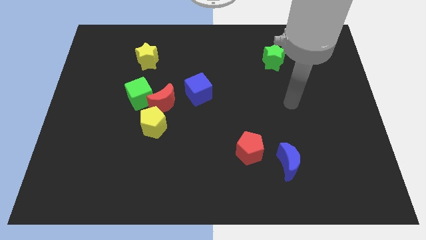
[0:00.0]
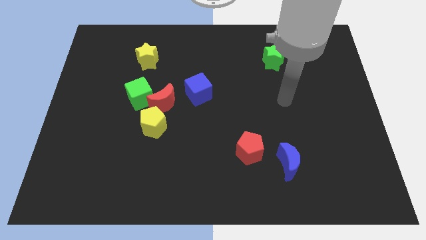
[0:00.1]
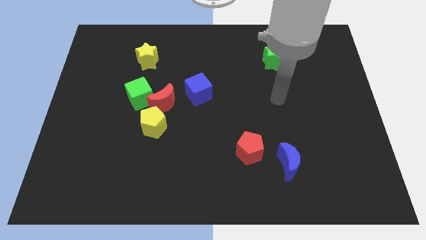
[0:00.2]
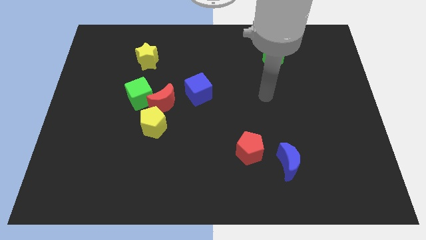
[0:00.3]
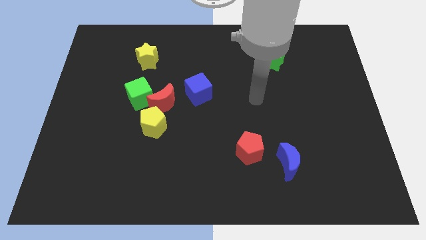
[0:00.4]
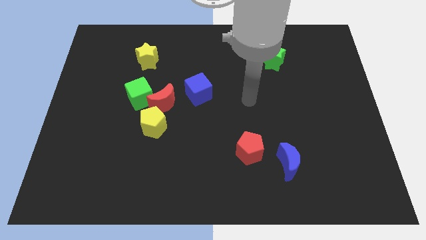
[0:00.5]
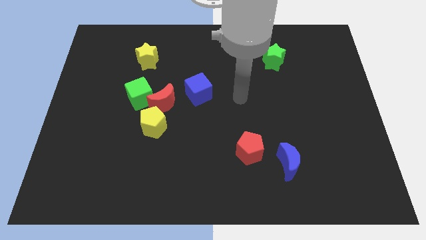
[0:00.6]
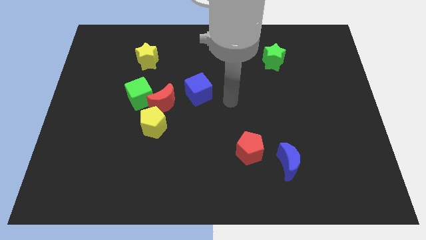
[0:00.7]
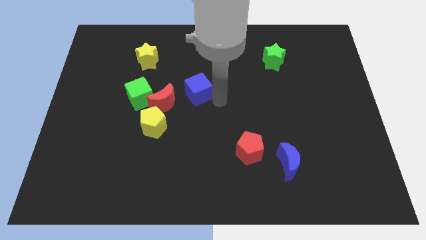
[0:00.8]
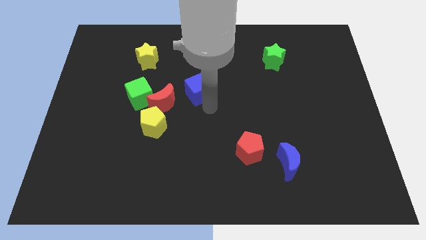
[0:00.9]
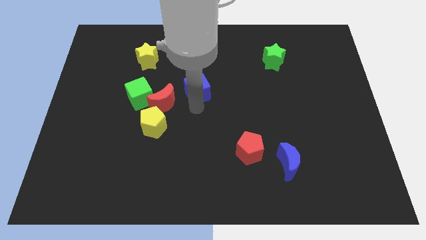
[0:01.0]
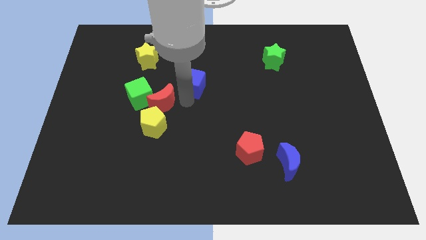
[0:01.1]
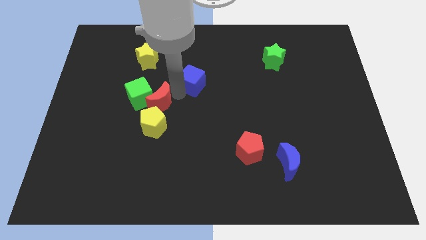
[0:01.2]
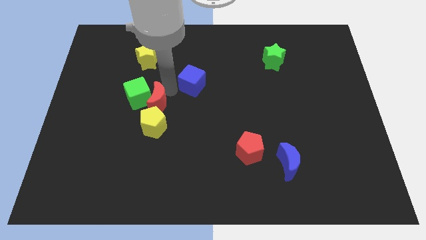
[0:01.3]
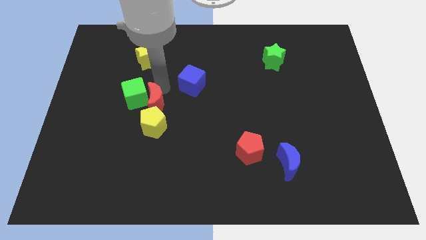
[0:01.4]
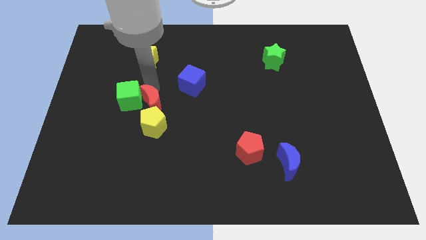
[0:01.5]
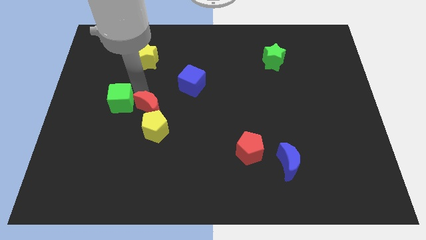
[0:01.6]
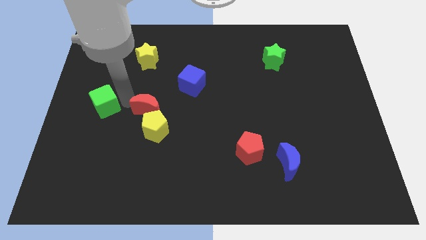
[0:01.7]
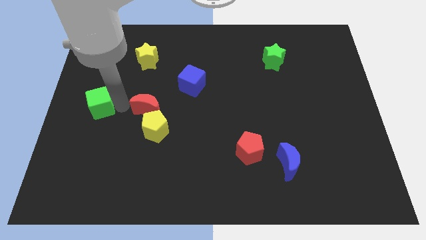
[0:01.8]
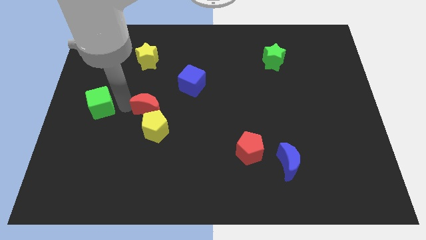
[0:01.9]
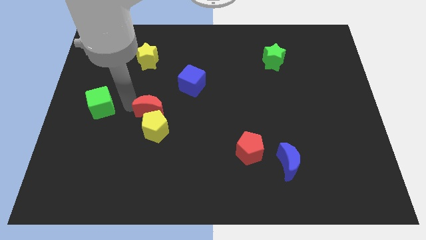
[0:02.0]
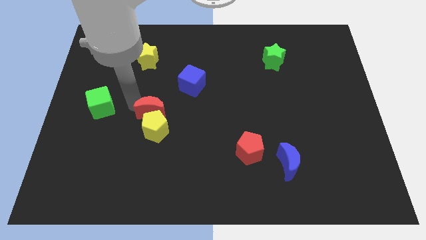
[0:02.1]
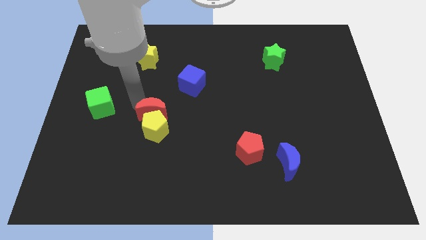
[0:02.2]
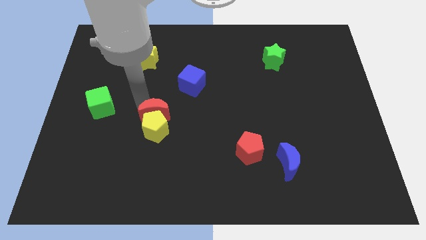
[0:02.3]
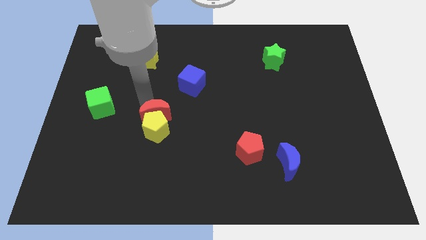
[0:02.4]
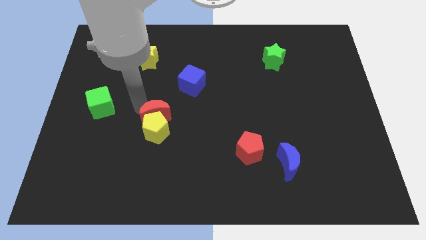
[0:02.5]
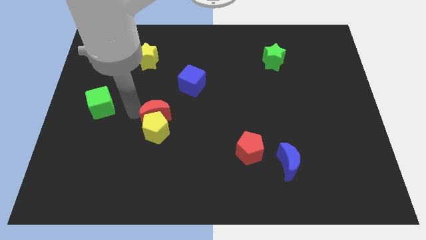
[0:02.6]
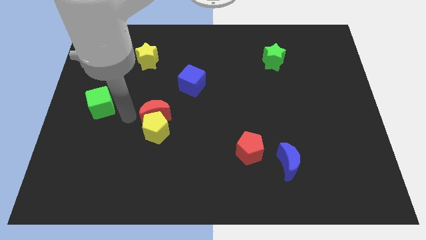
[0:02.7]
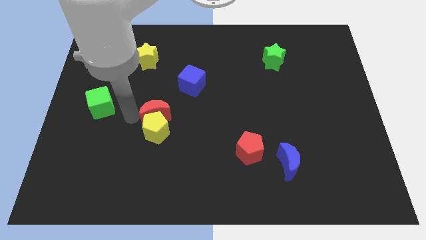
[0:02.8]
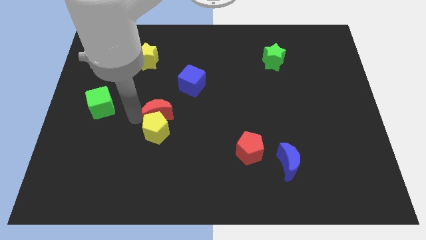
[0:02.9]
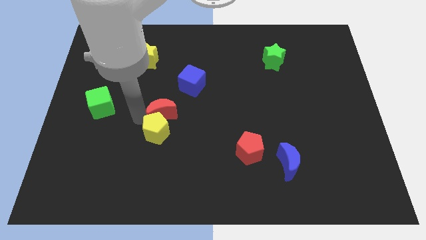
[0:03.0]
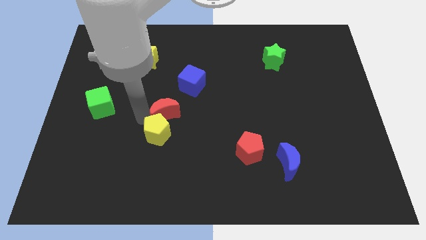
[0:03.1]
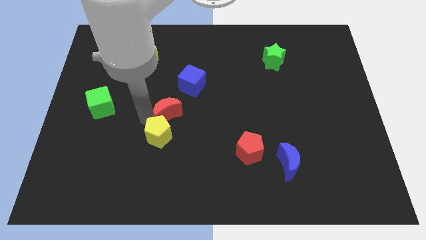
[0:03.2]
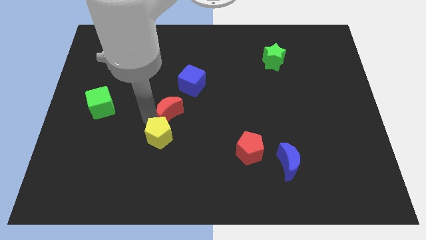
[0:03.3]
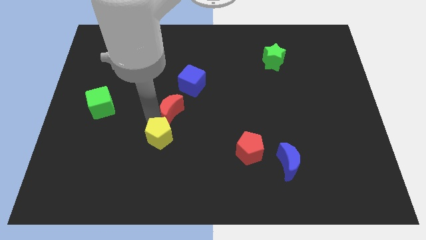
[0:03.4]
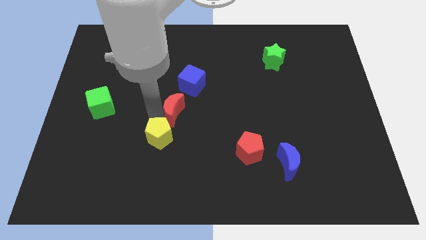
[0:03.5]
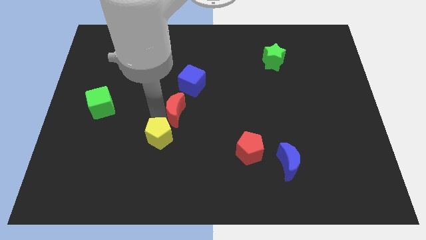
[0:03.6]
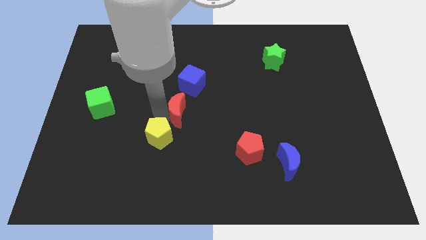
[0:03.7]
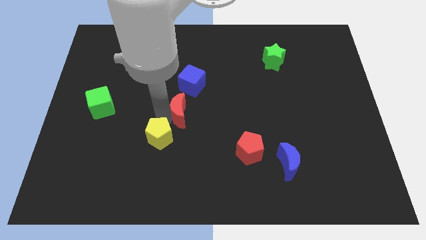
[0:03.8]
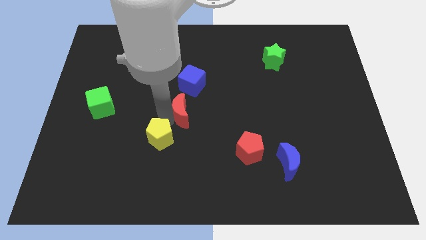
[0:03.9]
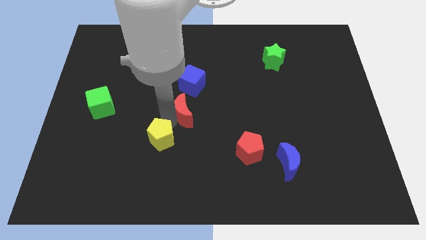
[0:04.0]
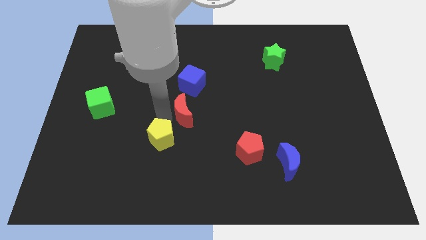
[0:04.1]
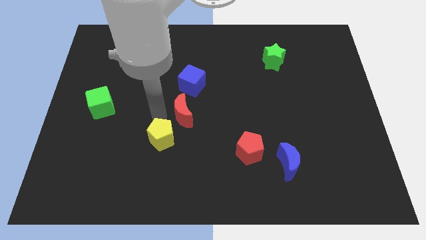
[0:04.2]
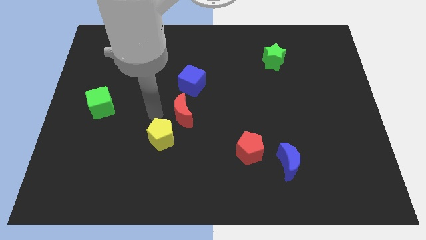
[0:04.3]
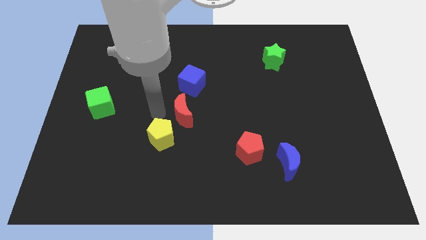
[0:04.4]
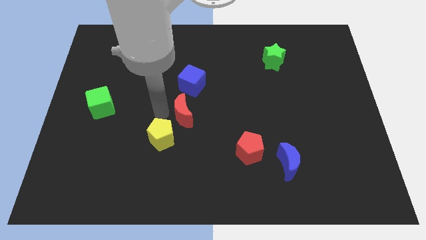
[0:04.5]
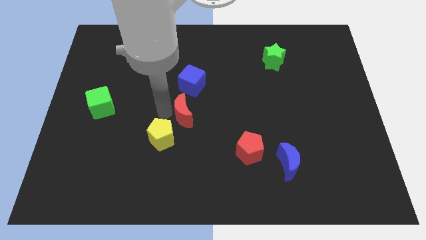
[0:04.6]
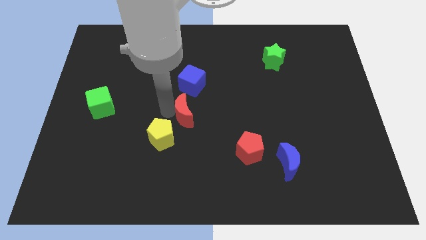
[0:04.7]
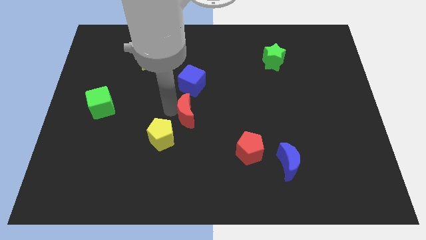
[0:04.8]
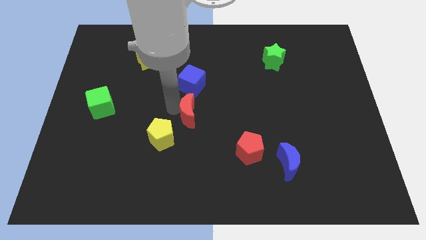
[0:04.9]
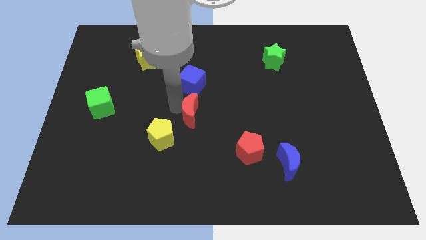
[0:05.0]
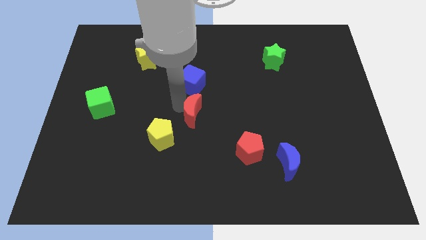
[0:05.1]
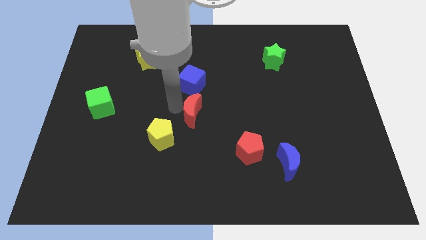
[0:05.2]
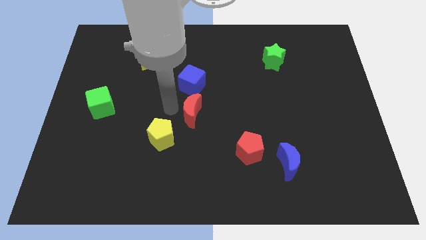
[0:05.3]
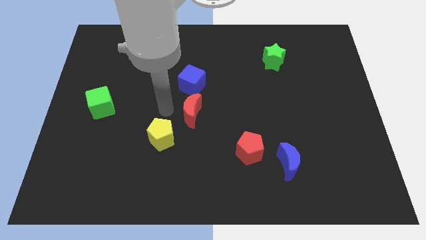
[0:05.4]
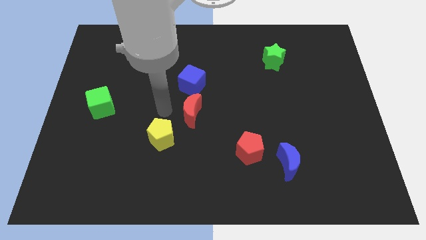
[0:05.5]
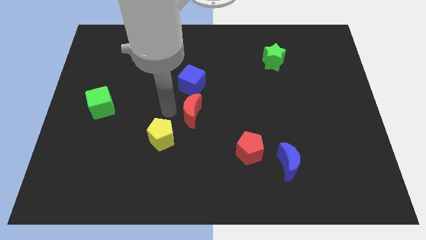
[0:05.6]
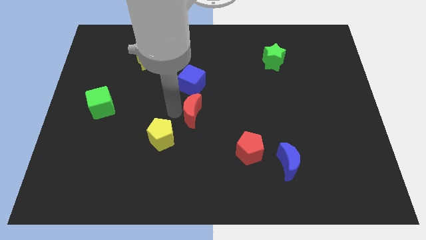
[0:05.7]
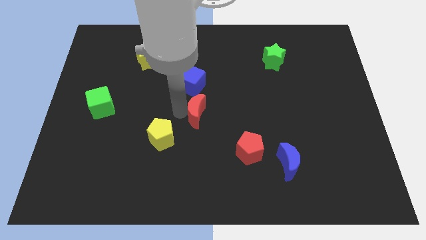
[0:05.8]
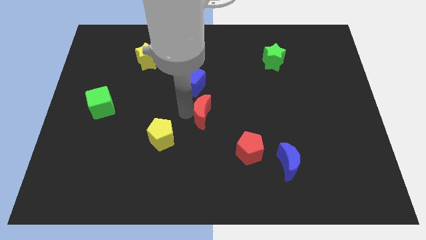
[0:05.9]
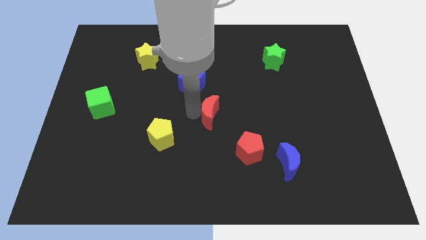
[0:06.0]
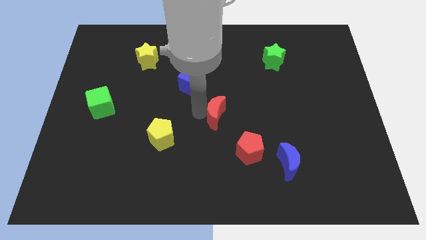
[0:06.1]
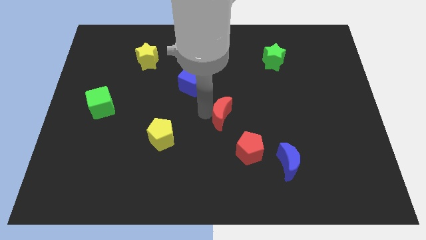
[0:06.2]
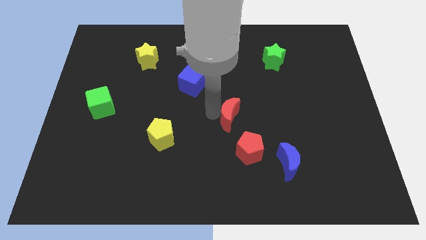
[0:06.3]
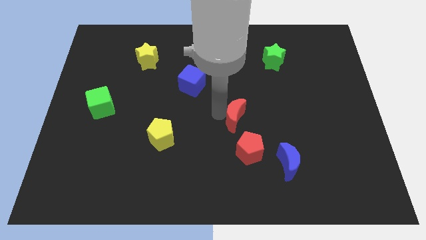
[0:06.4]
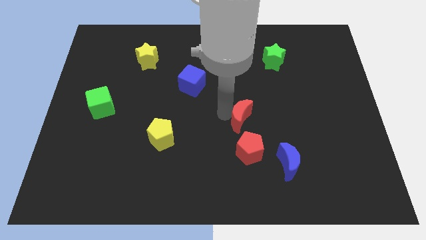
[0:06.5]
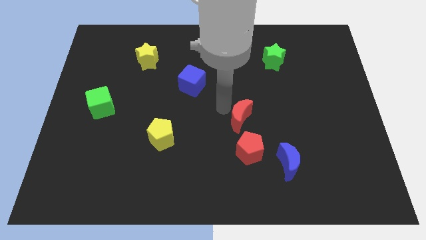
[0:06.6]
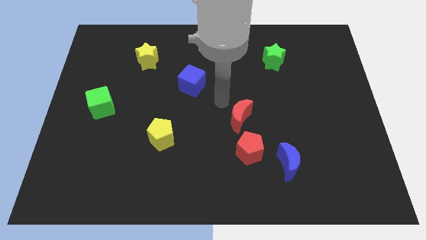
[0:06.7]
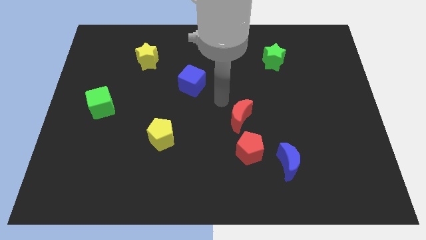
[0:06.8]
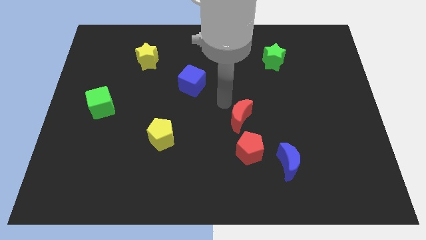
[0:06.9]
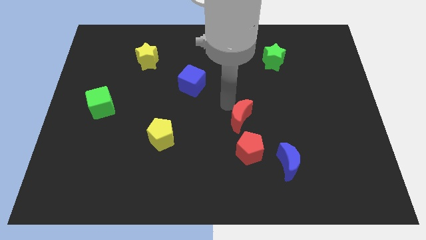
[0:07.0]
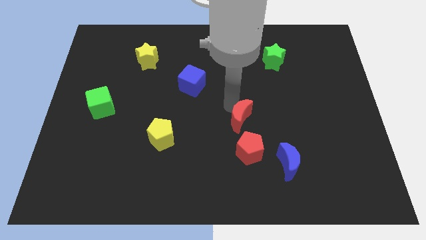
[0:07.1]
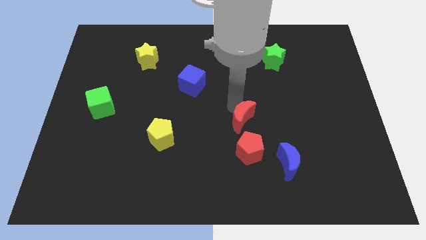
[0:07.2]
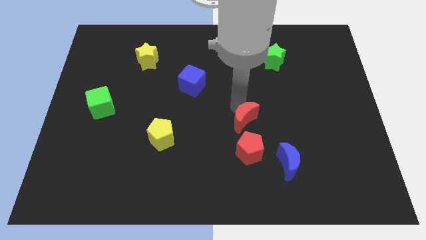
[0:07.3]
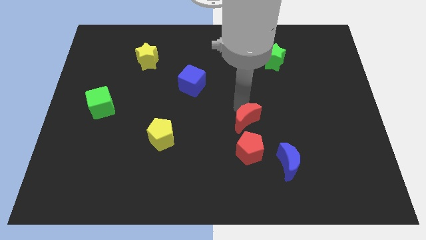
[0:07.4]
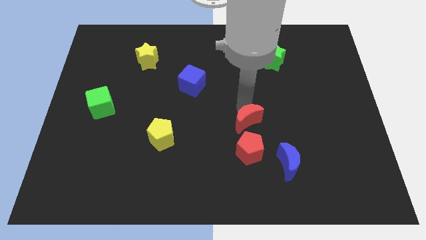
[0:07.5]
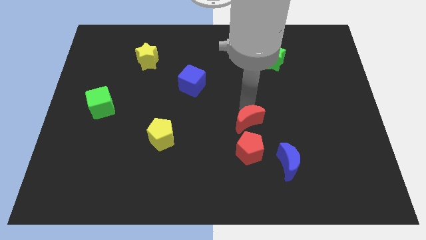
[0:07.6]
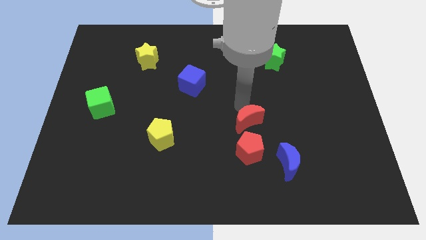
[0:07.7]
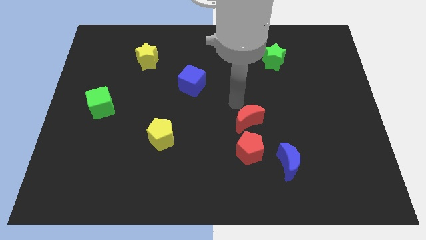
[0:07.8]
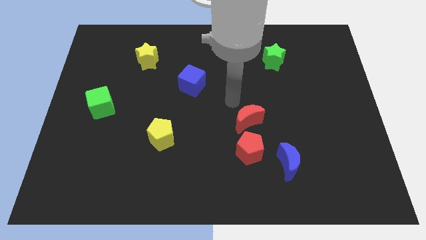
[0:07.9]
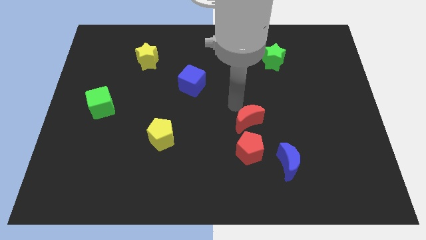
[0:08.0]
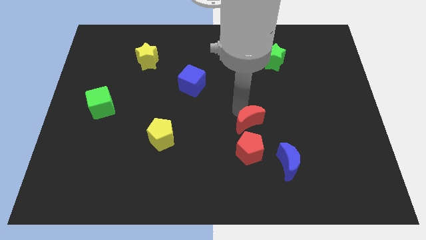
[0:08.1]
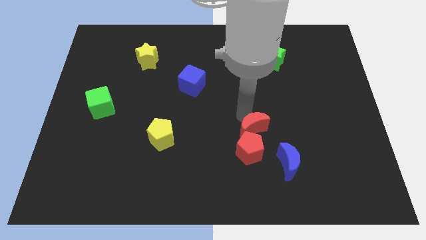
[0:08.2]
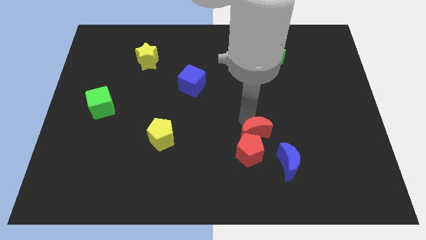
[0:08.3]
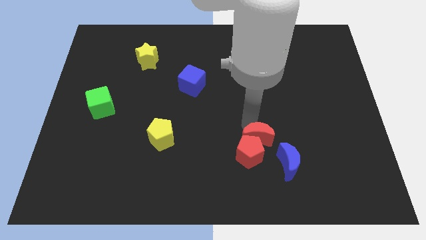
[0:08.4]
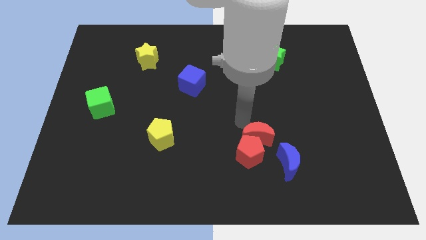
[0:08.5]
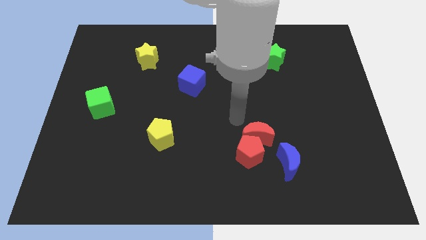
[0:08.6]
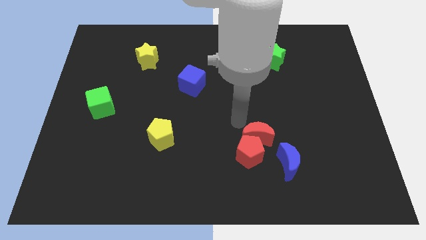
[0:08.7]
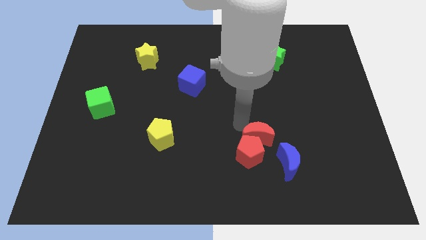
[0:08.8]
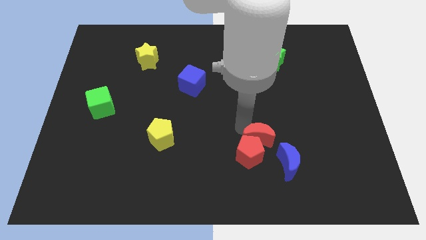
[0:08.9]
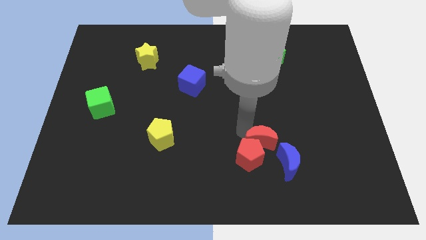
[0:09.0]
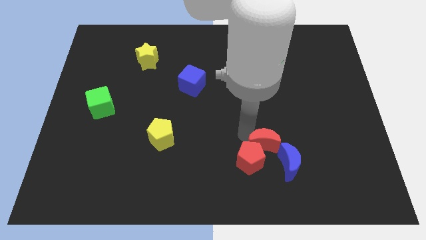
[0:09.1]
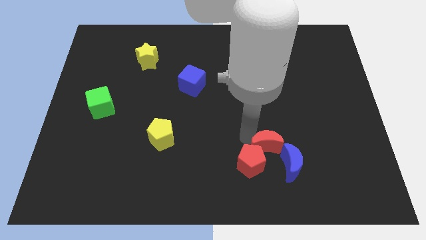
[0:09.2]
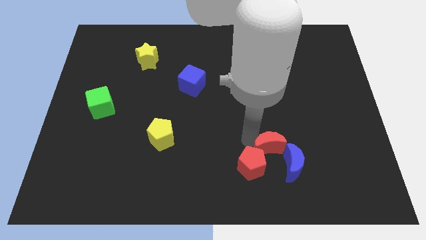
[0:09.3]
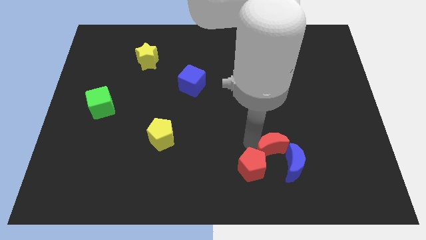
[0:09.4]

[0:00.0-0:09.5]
put the red moon to the blue moon
